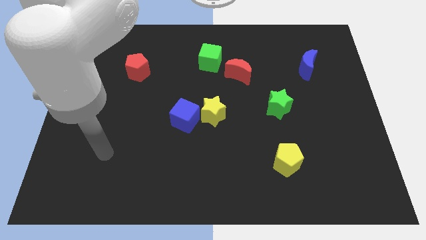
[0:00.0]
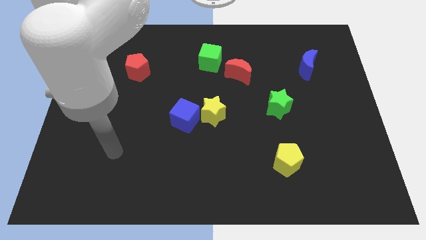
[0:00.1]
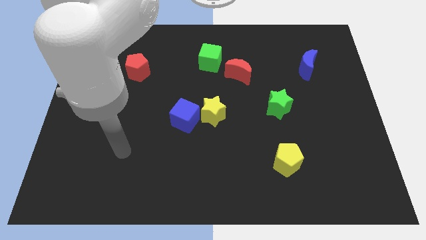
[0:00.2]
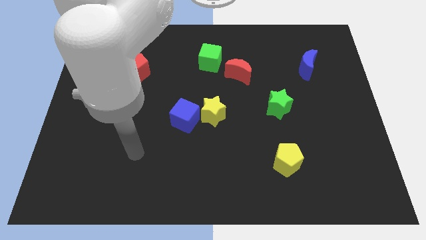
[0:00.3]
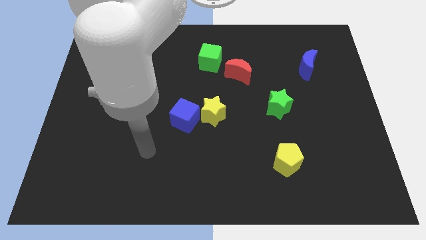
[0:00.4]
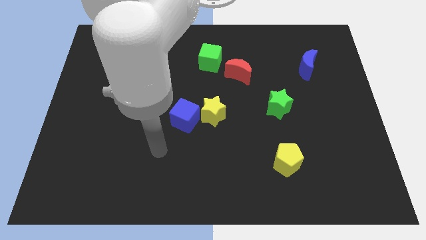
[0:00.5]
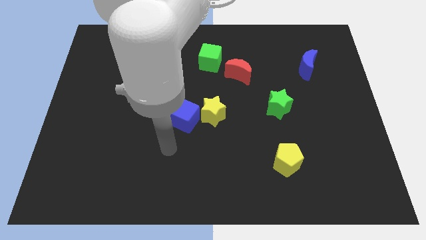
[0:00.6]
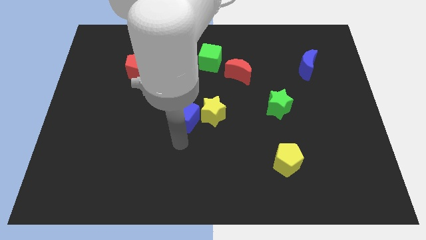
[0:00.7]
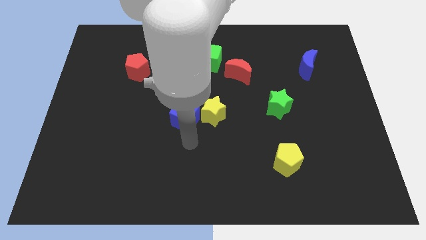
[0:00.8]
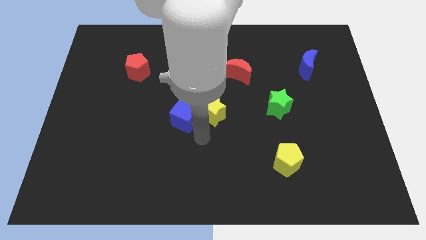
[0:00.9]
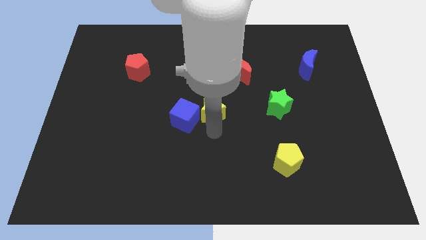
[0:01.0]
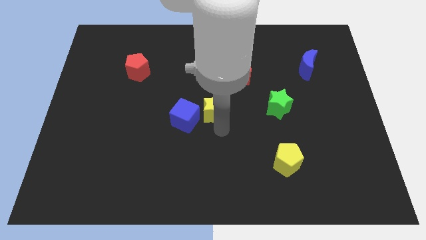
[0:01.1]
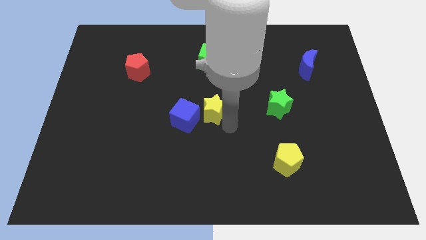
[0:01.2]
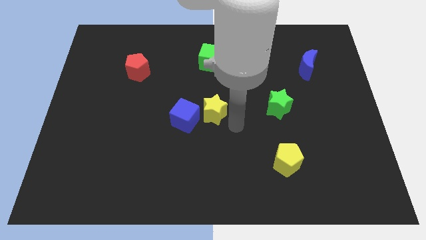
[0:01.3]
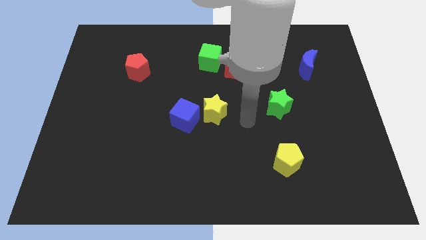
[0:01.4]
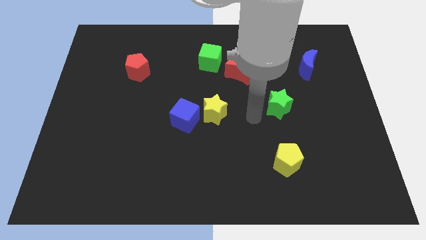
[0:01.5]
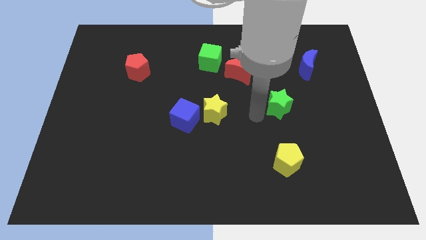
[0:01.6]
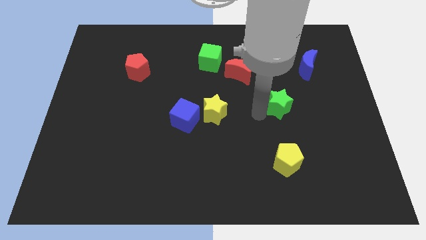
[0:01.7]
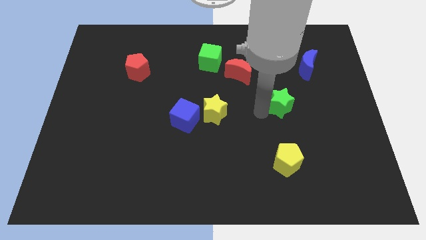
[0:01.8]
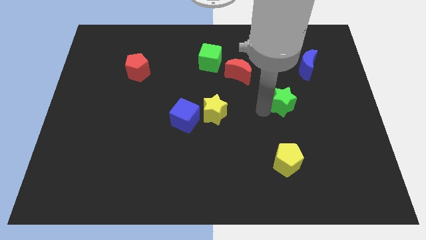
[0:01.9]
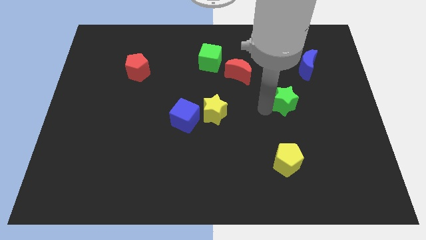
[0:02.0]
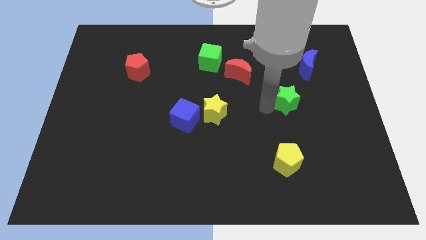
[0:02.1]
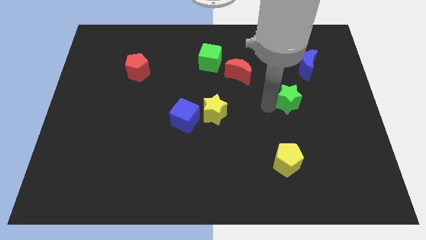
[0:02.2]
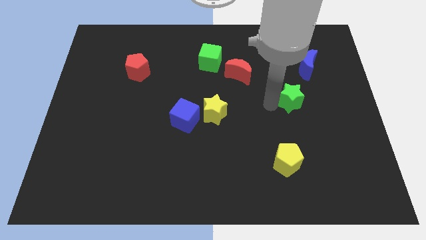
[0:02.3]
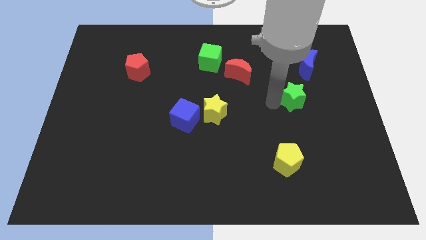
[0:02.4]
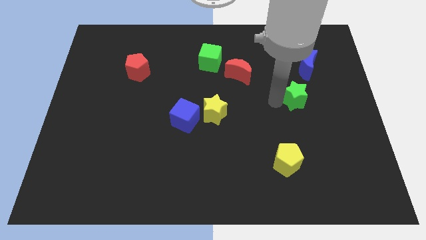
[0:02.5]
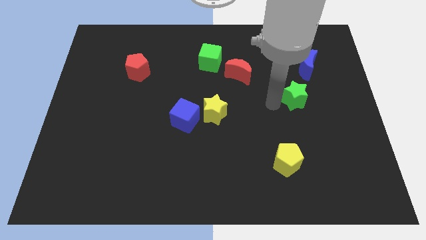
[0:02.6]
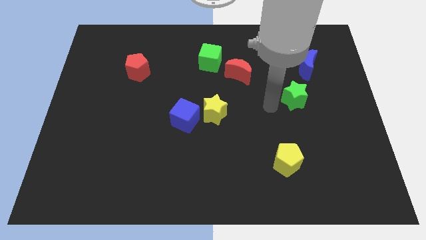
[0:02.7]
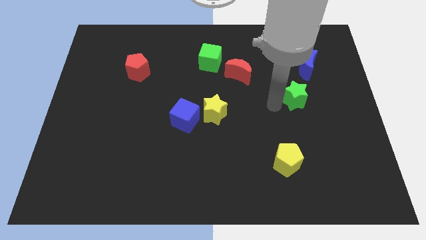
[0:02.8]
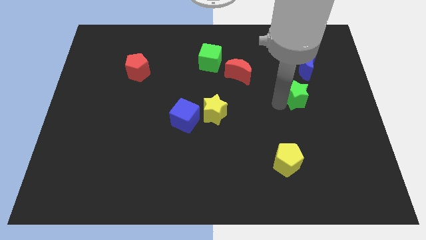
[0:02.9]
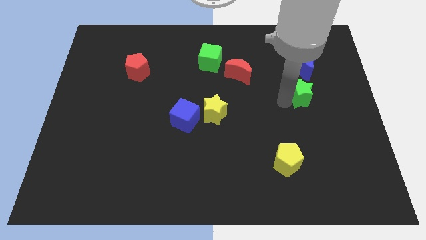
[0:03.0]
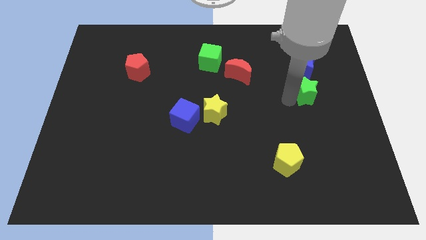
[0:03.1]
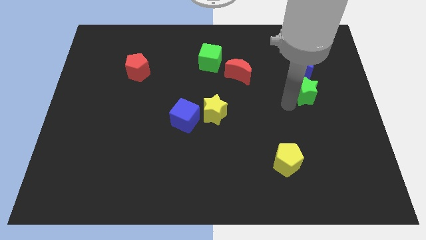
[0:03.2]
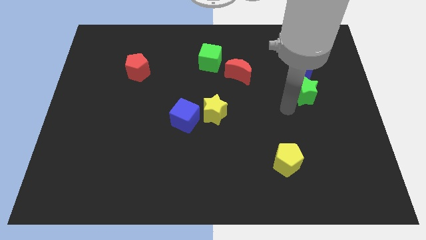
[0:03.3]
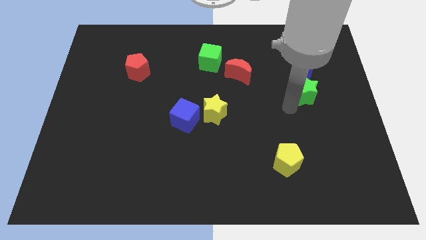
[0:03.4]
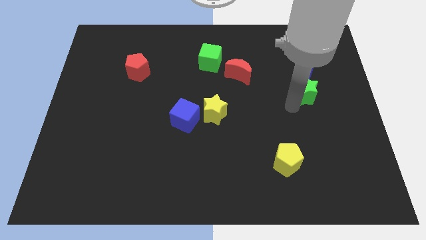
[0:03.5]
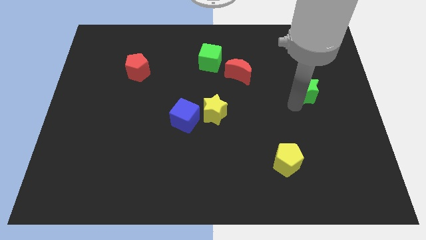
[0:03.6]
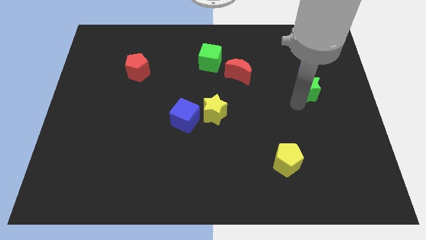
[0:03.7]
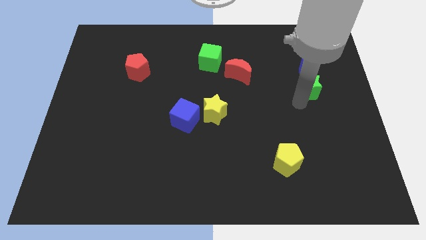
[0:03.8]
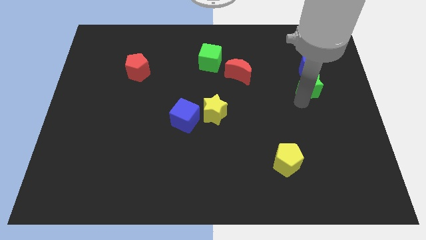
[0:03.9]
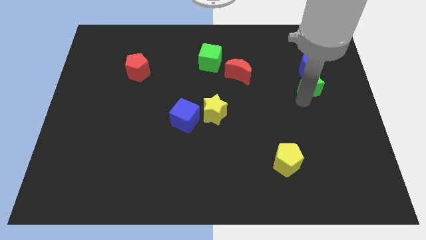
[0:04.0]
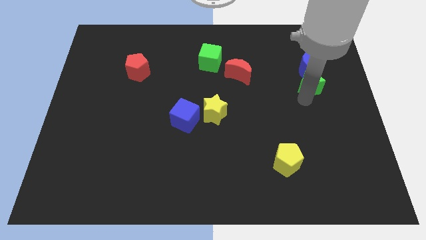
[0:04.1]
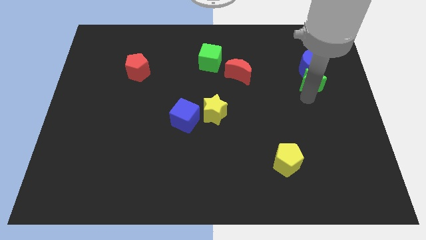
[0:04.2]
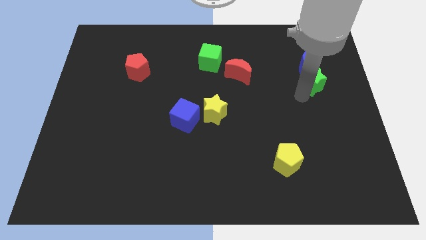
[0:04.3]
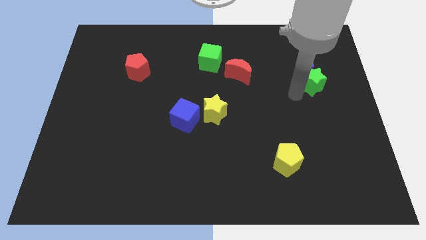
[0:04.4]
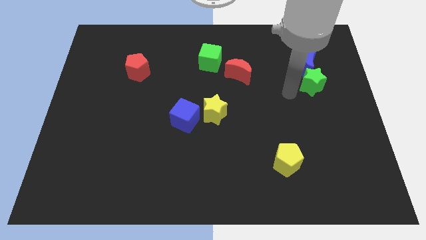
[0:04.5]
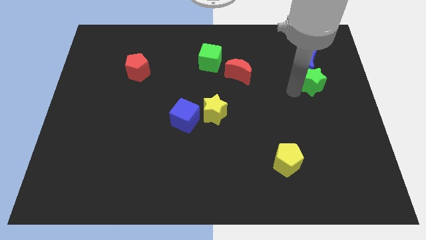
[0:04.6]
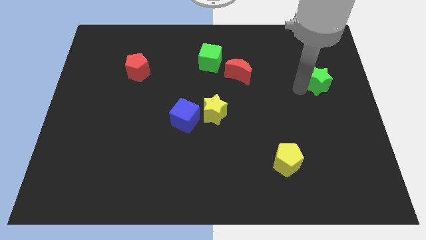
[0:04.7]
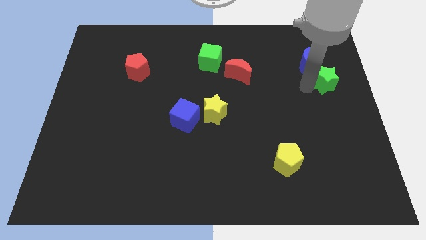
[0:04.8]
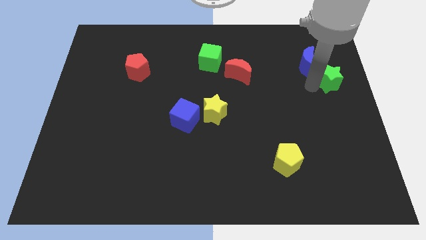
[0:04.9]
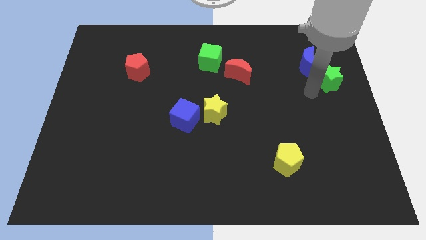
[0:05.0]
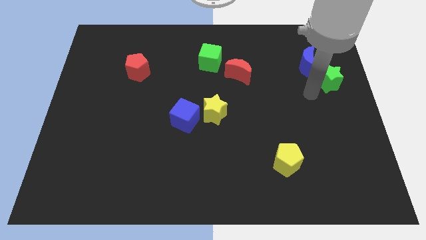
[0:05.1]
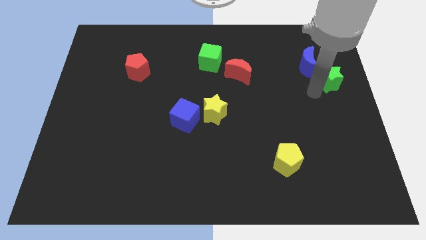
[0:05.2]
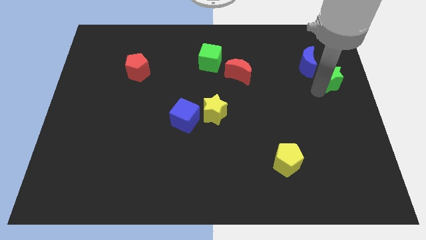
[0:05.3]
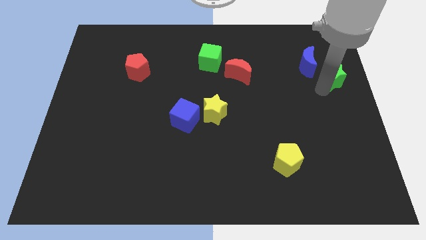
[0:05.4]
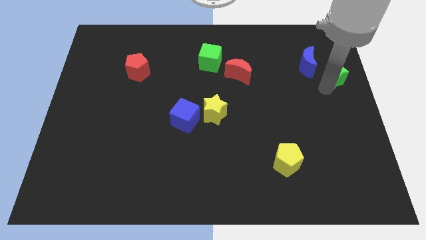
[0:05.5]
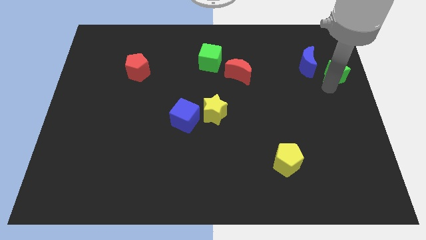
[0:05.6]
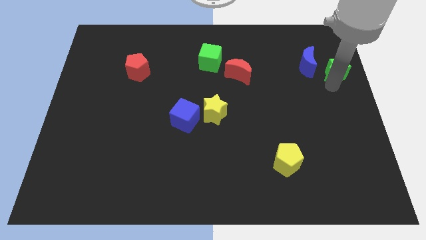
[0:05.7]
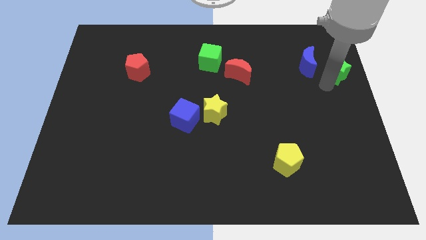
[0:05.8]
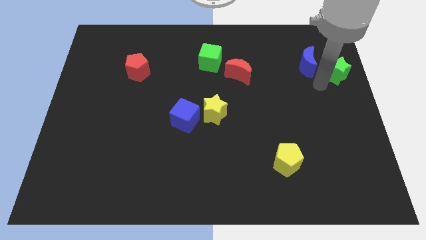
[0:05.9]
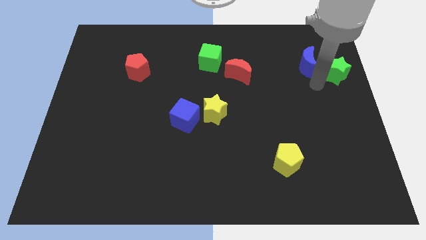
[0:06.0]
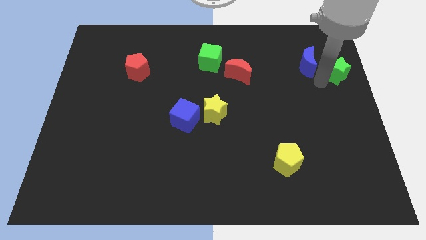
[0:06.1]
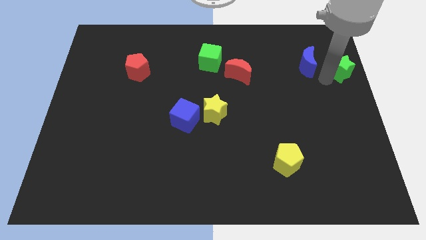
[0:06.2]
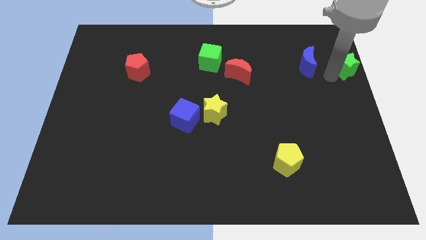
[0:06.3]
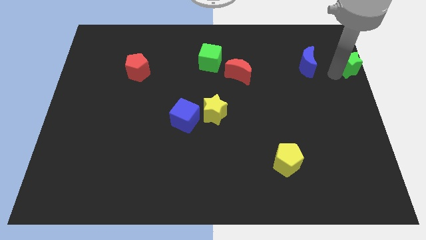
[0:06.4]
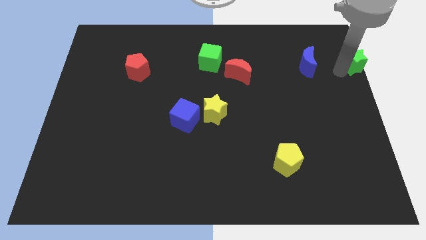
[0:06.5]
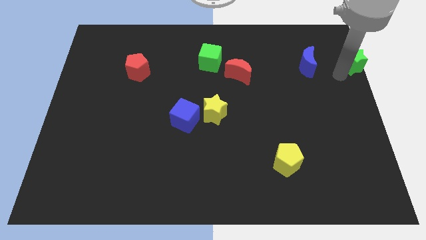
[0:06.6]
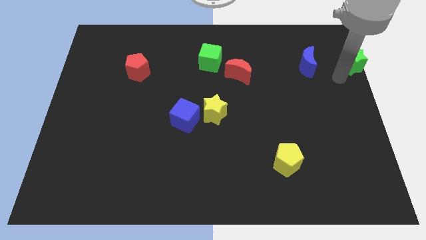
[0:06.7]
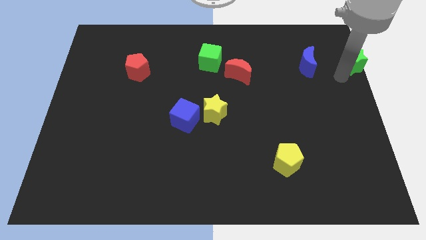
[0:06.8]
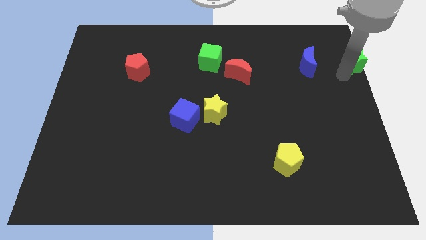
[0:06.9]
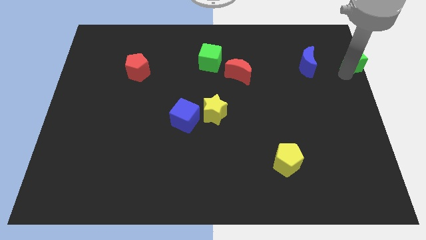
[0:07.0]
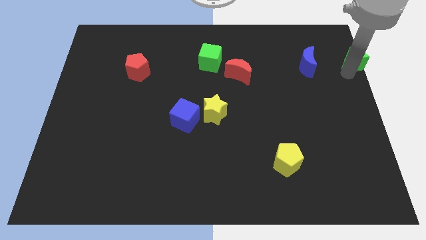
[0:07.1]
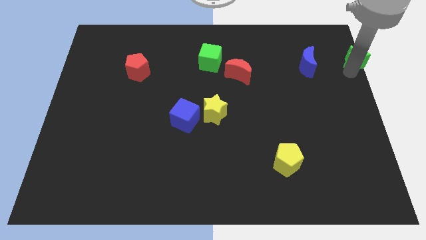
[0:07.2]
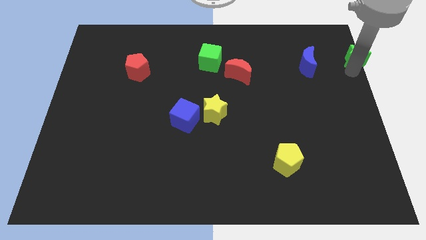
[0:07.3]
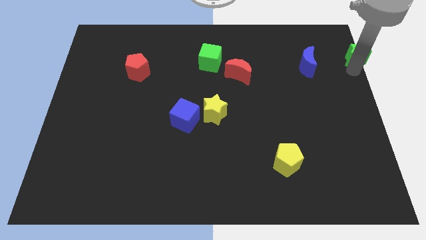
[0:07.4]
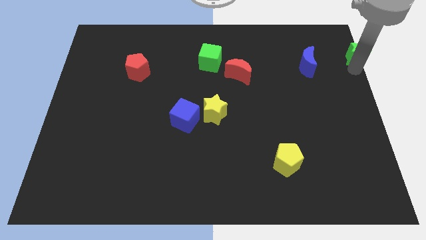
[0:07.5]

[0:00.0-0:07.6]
move the green star to the top right
